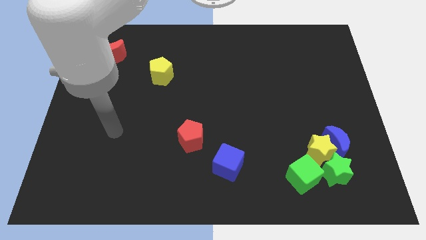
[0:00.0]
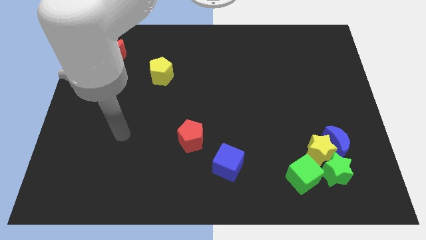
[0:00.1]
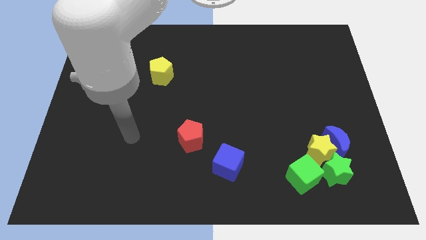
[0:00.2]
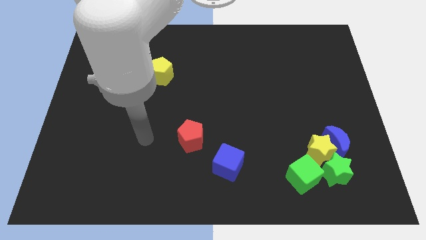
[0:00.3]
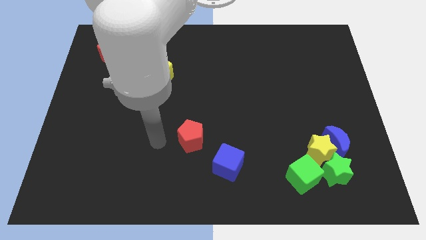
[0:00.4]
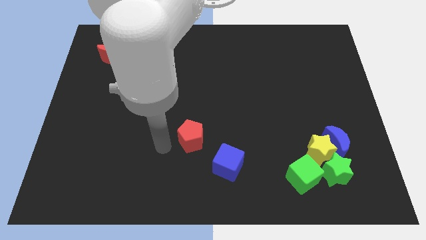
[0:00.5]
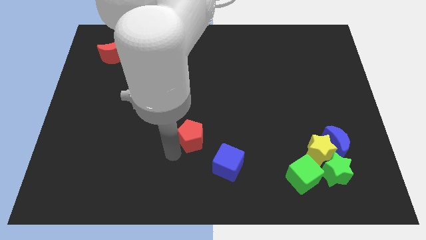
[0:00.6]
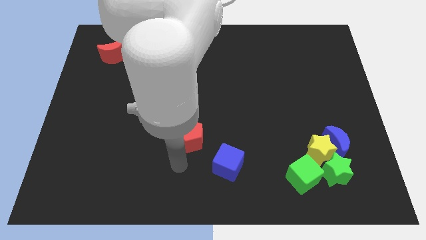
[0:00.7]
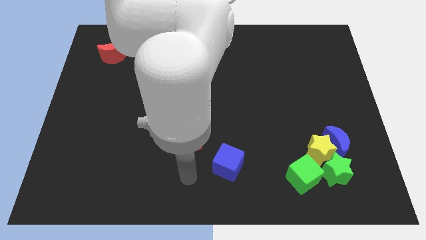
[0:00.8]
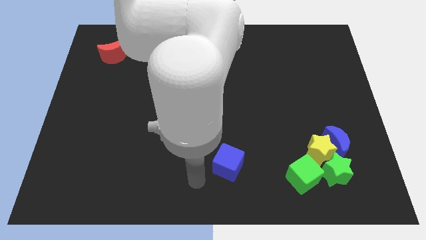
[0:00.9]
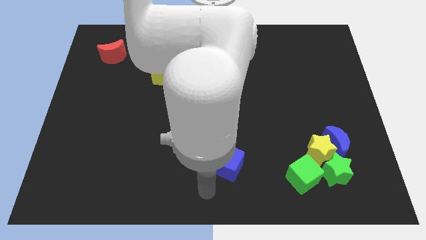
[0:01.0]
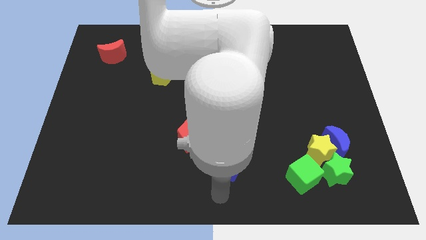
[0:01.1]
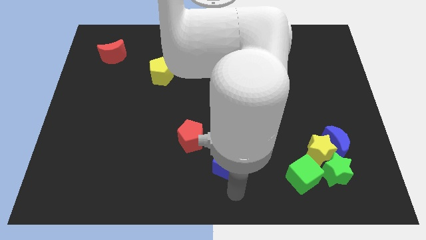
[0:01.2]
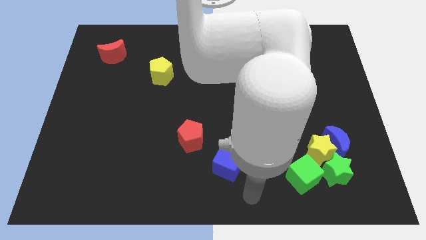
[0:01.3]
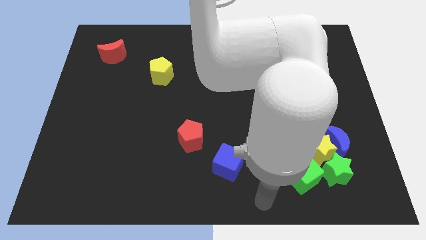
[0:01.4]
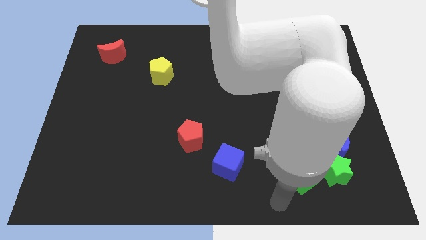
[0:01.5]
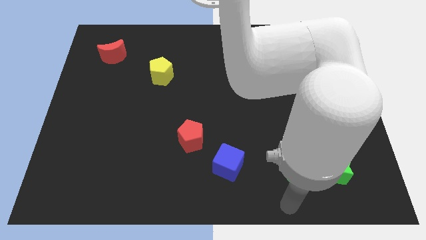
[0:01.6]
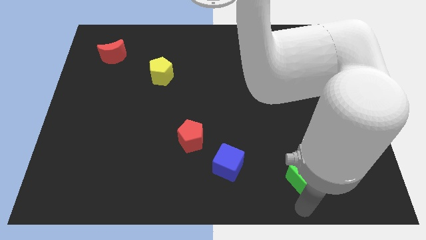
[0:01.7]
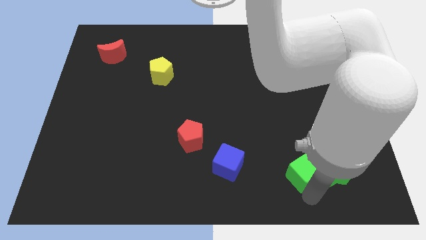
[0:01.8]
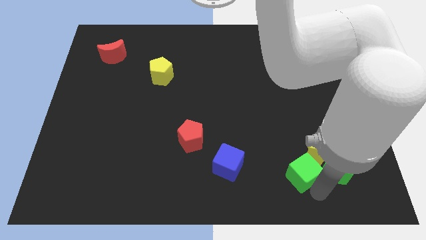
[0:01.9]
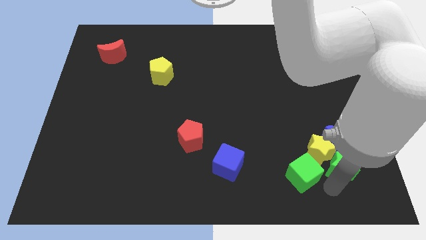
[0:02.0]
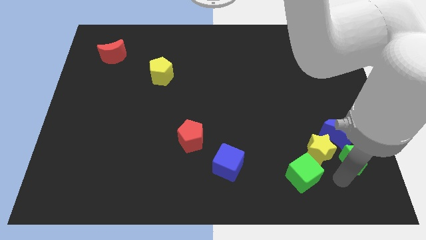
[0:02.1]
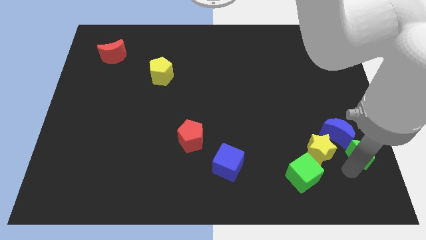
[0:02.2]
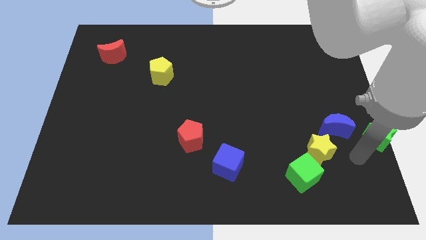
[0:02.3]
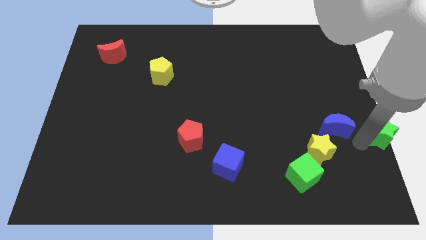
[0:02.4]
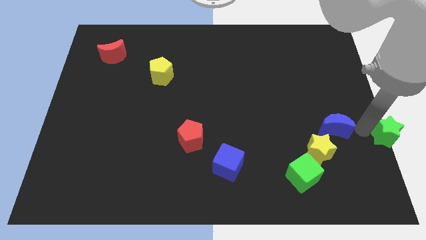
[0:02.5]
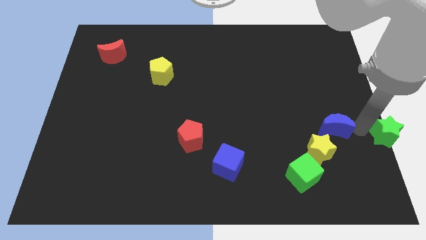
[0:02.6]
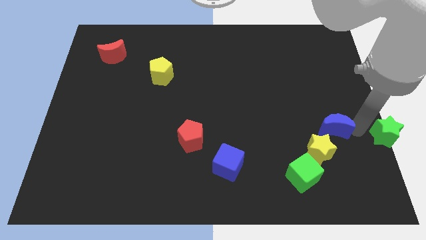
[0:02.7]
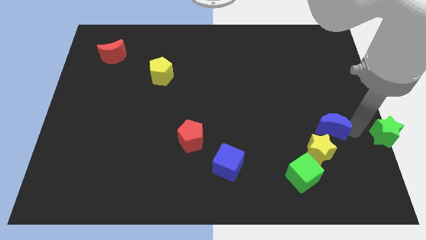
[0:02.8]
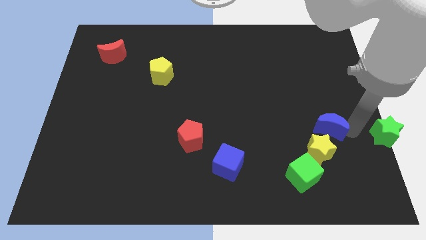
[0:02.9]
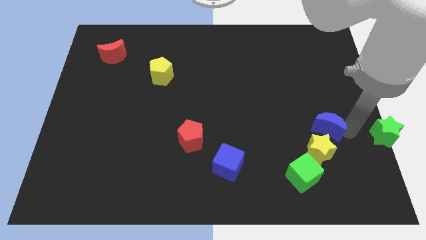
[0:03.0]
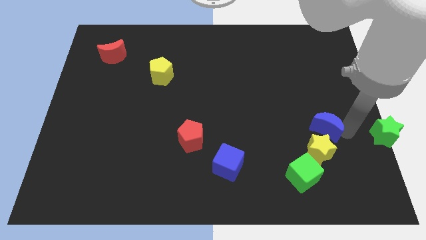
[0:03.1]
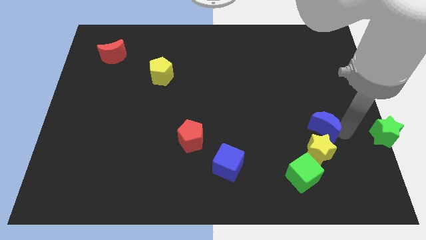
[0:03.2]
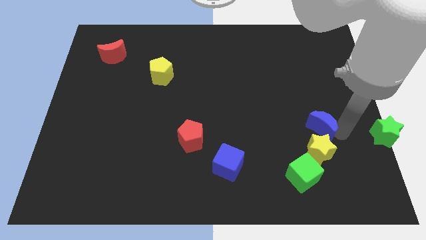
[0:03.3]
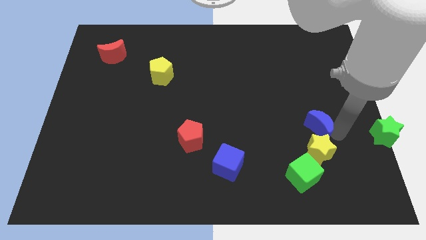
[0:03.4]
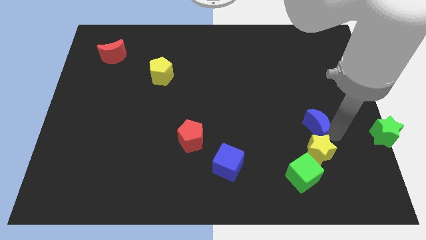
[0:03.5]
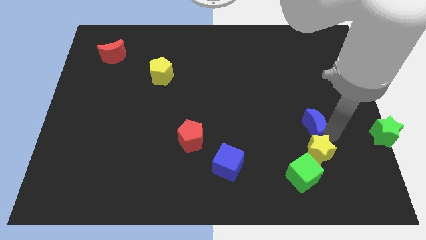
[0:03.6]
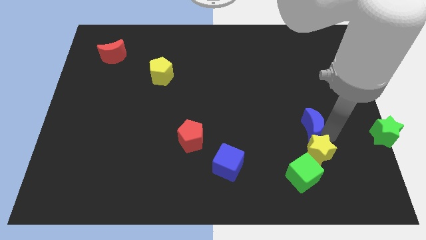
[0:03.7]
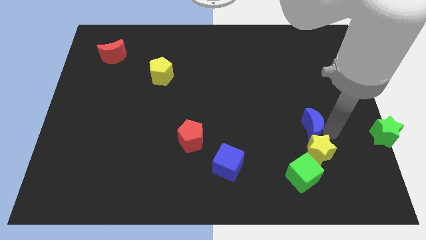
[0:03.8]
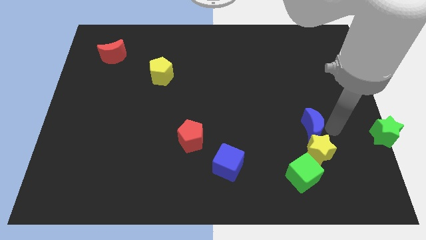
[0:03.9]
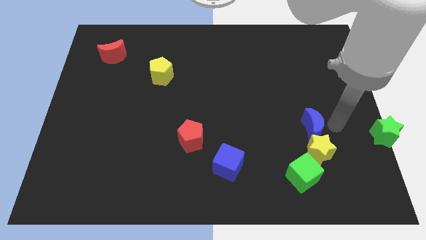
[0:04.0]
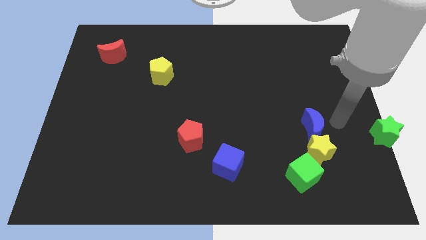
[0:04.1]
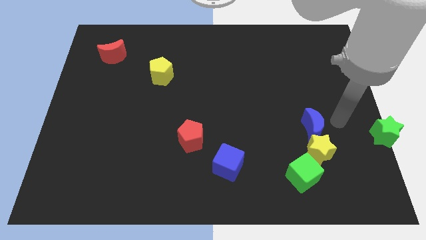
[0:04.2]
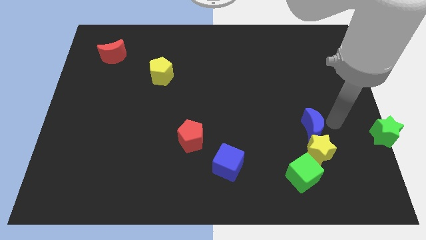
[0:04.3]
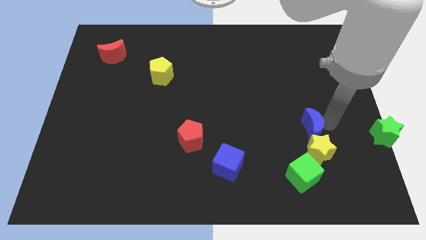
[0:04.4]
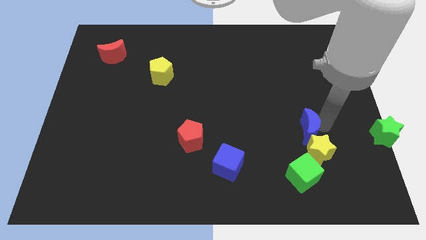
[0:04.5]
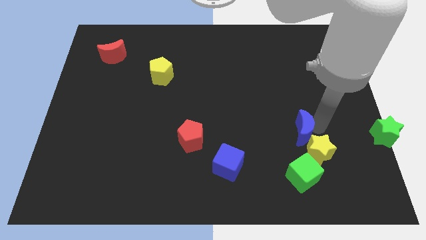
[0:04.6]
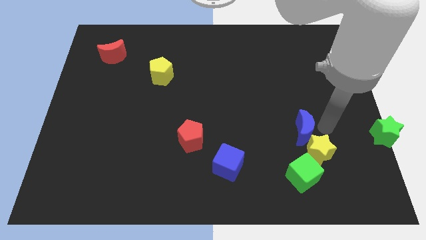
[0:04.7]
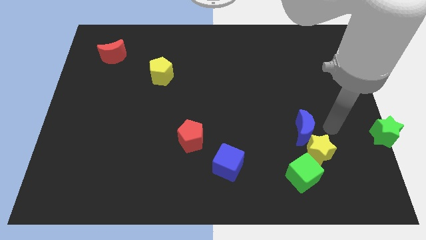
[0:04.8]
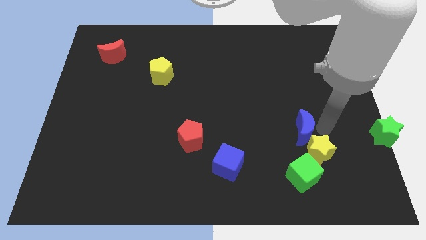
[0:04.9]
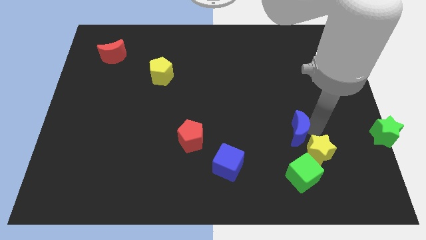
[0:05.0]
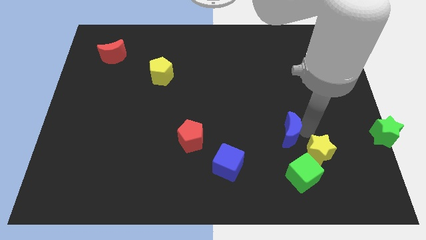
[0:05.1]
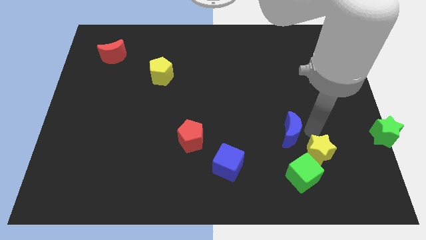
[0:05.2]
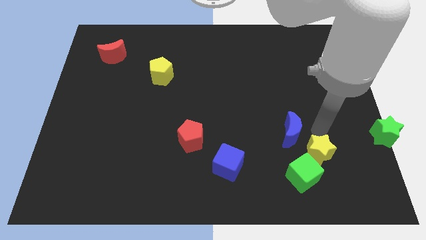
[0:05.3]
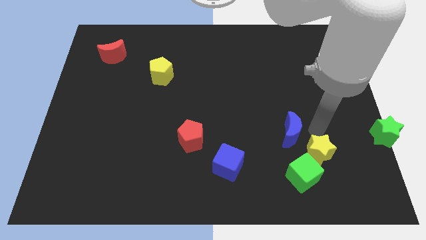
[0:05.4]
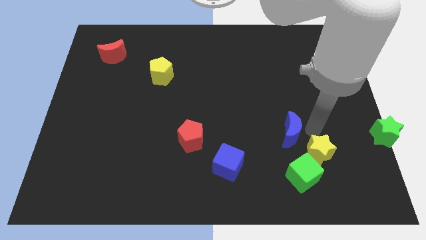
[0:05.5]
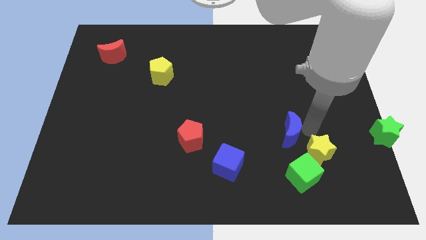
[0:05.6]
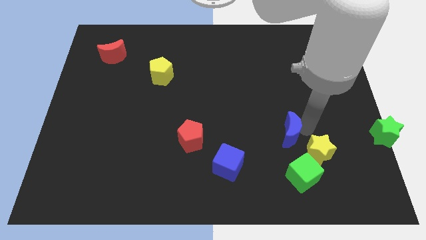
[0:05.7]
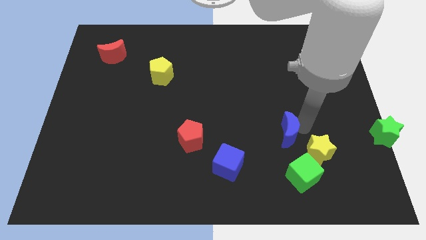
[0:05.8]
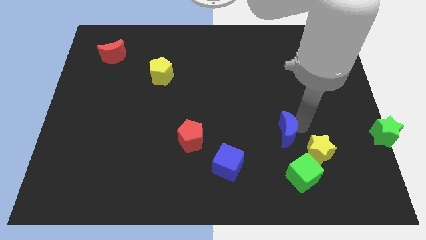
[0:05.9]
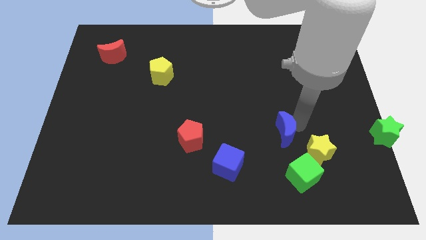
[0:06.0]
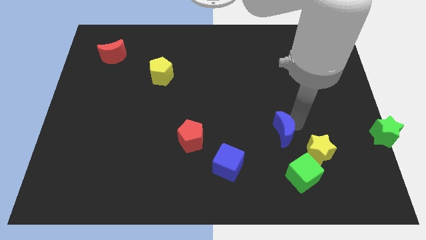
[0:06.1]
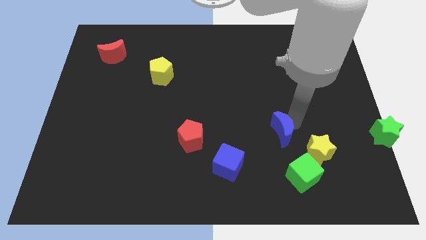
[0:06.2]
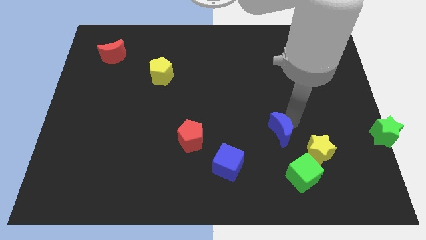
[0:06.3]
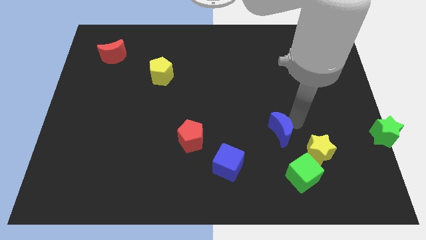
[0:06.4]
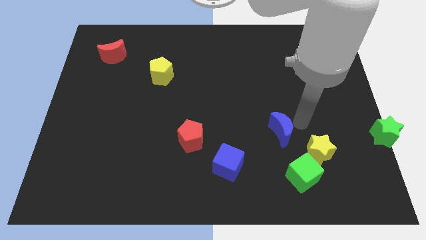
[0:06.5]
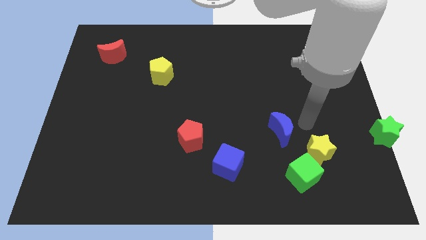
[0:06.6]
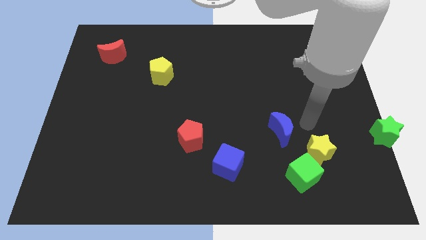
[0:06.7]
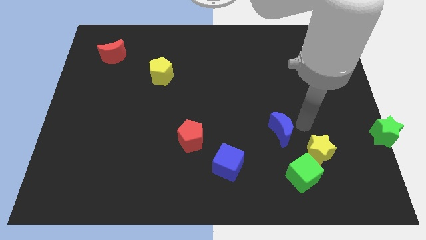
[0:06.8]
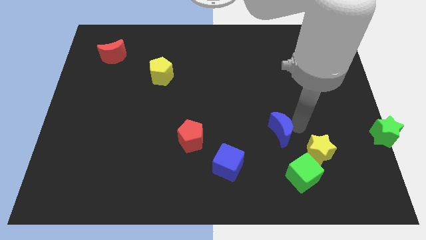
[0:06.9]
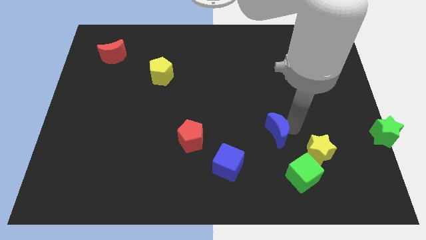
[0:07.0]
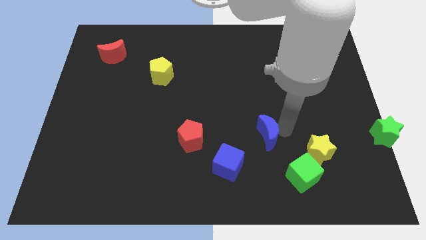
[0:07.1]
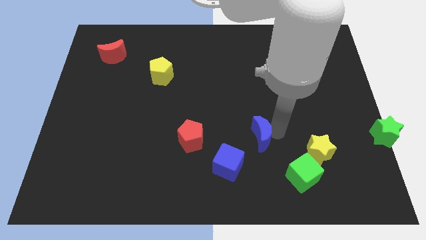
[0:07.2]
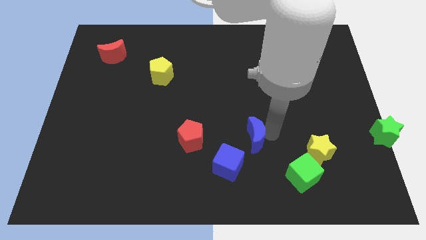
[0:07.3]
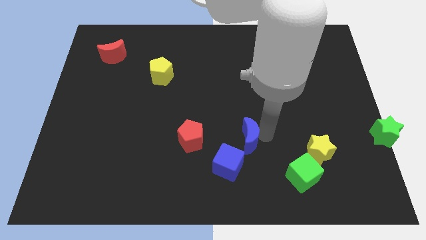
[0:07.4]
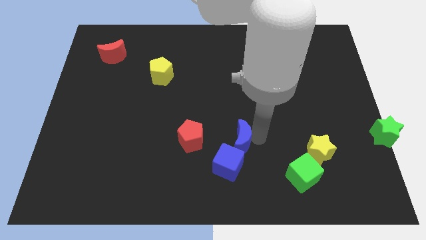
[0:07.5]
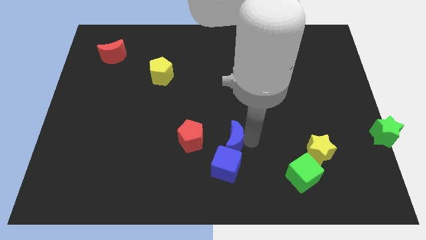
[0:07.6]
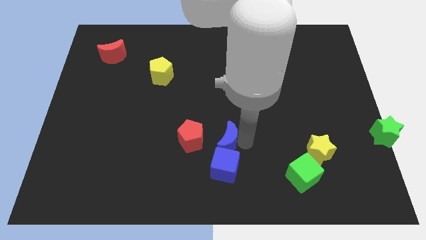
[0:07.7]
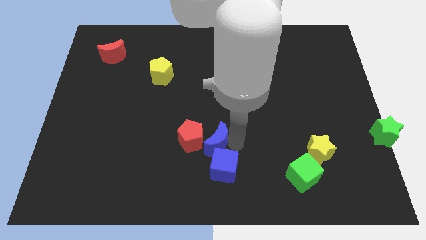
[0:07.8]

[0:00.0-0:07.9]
move the blue moon next to the red pentagon
